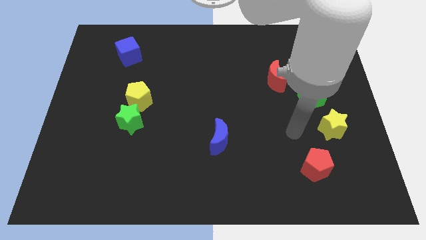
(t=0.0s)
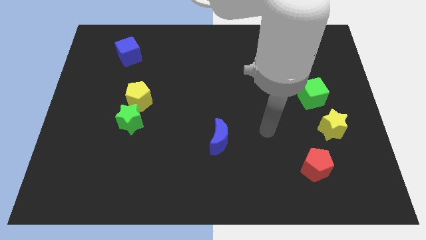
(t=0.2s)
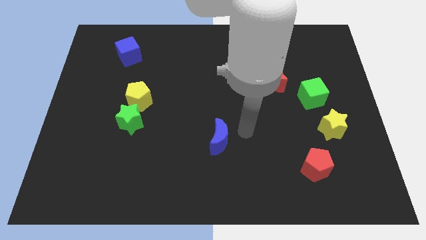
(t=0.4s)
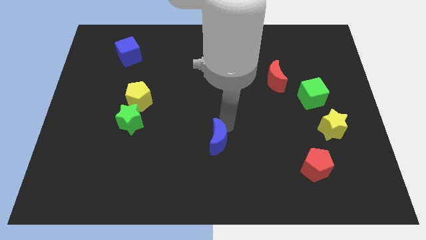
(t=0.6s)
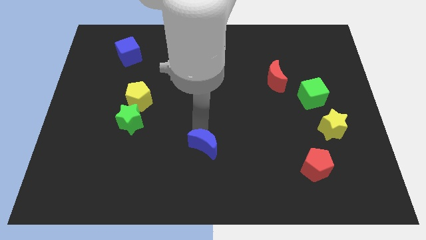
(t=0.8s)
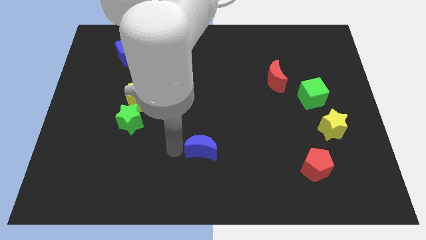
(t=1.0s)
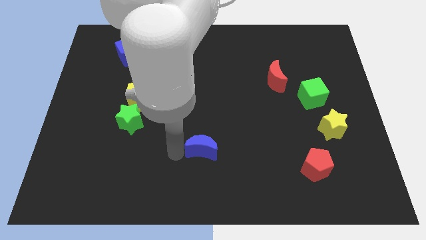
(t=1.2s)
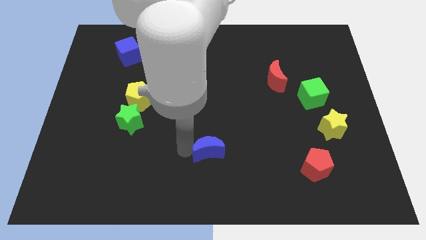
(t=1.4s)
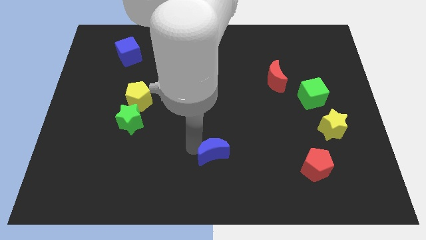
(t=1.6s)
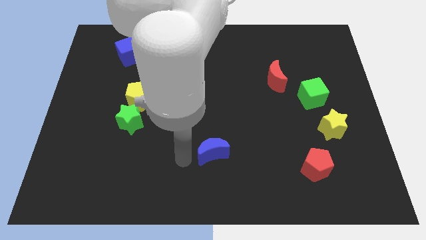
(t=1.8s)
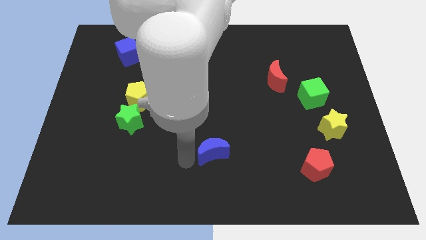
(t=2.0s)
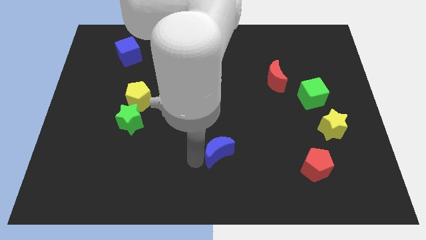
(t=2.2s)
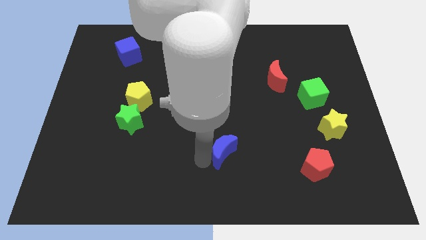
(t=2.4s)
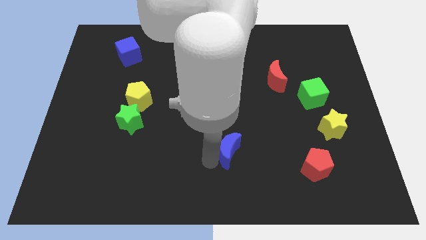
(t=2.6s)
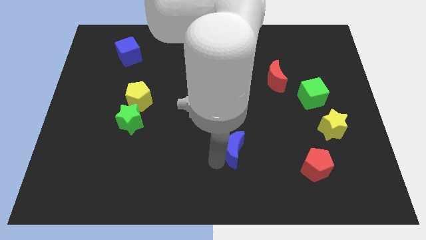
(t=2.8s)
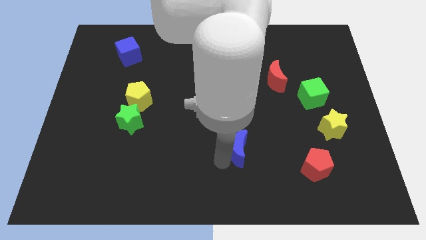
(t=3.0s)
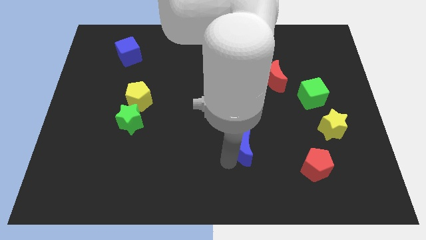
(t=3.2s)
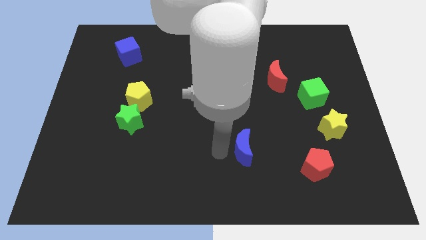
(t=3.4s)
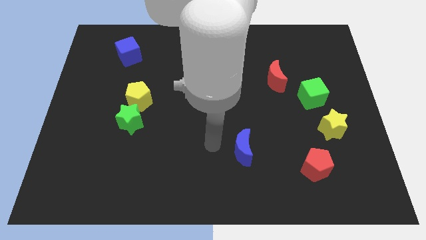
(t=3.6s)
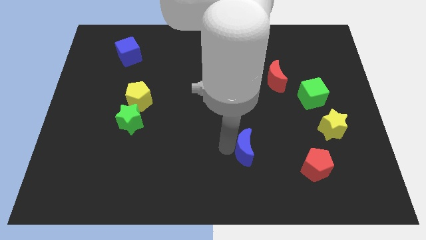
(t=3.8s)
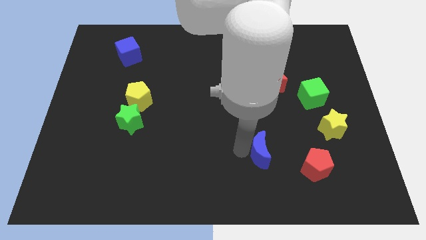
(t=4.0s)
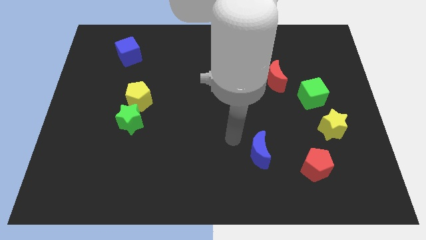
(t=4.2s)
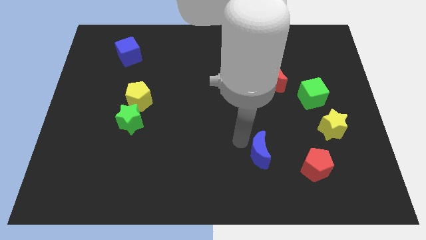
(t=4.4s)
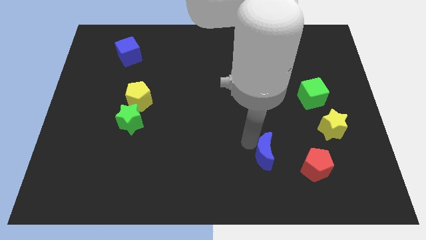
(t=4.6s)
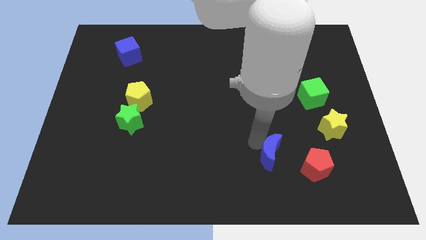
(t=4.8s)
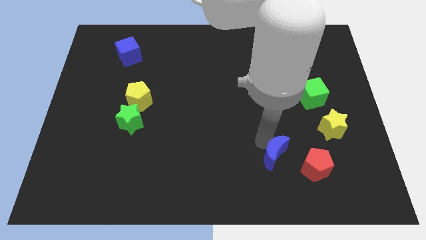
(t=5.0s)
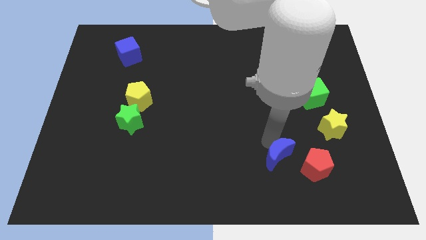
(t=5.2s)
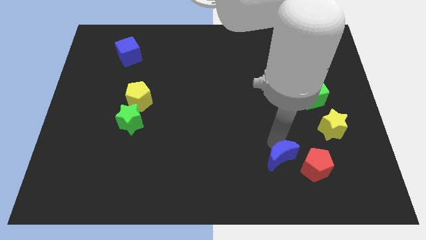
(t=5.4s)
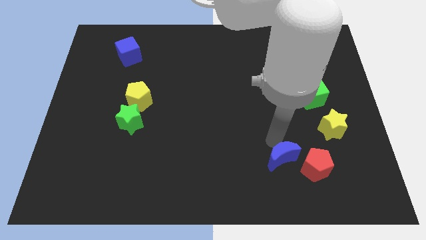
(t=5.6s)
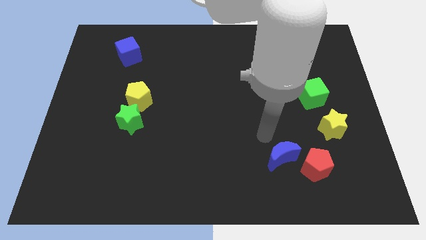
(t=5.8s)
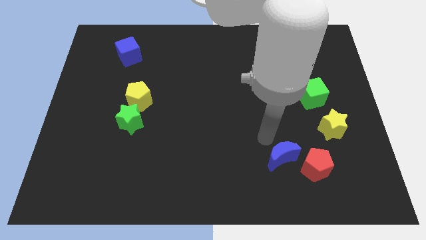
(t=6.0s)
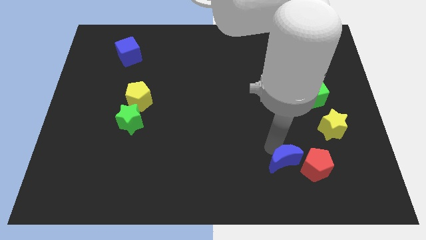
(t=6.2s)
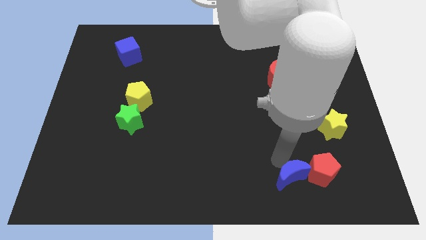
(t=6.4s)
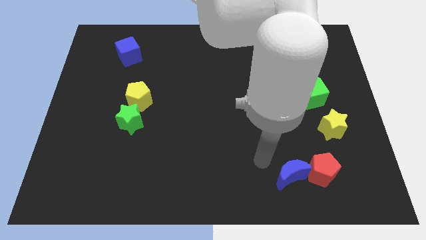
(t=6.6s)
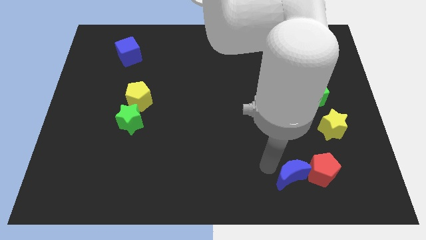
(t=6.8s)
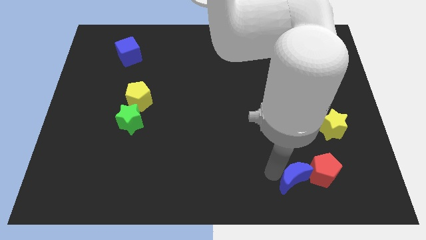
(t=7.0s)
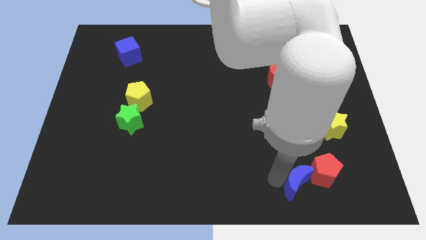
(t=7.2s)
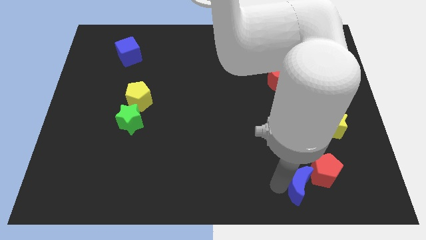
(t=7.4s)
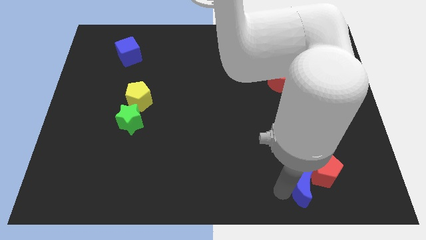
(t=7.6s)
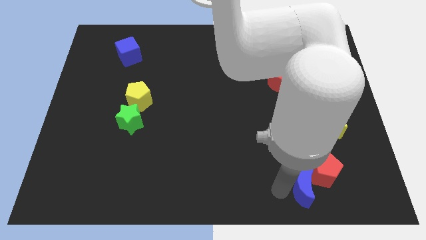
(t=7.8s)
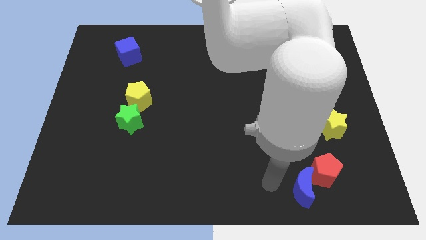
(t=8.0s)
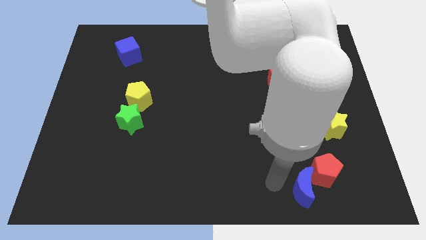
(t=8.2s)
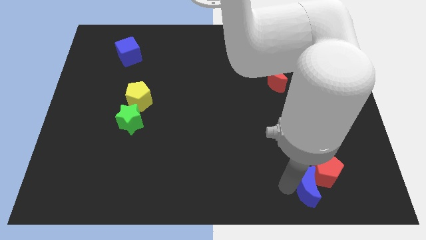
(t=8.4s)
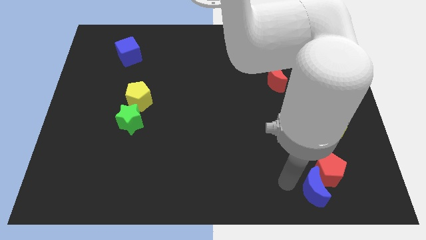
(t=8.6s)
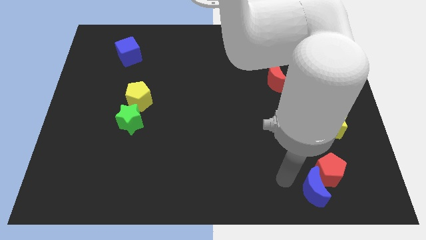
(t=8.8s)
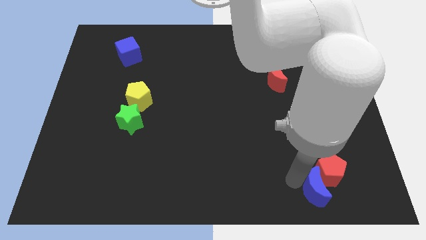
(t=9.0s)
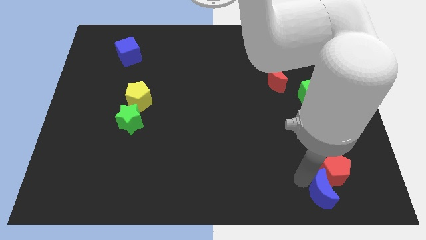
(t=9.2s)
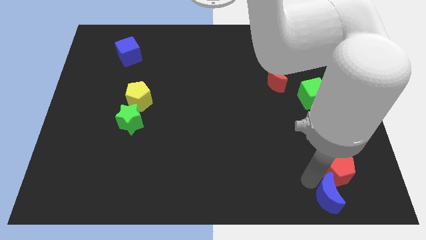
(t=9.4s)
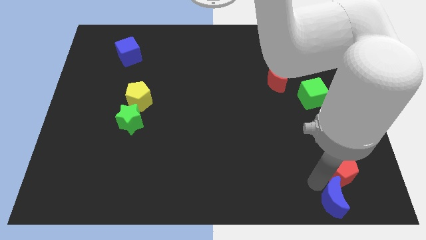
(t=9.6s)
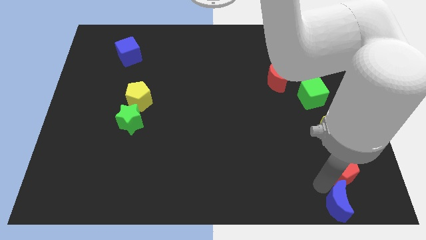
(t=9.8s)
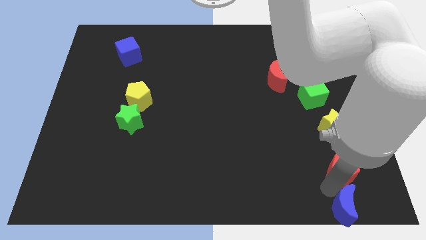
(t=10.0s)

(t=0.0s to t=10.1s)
put the blue moon to the bottom right
